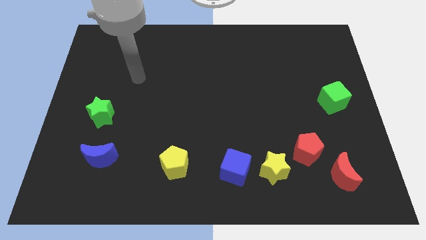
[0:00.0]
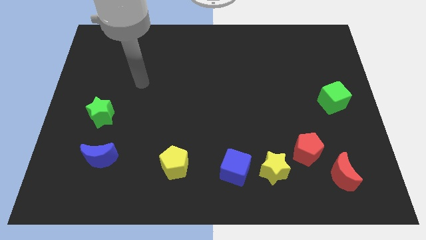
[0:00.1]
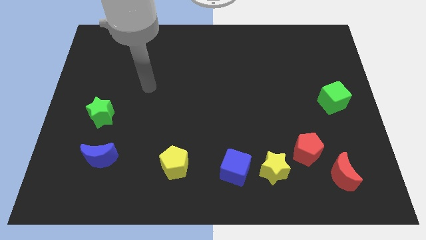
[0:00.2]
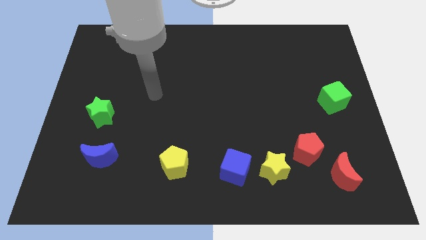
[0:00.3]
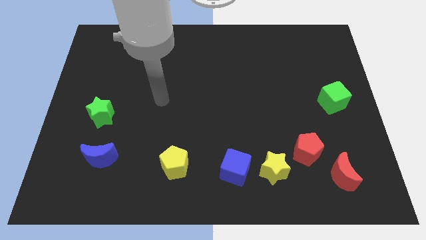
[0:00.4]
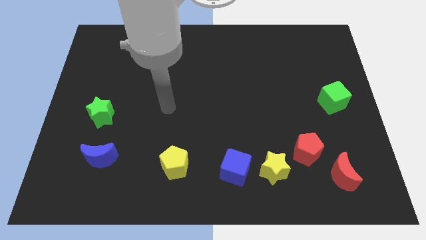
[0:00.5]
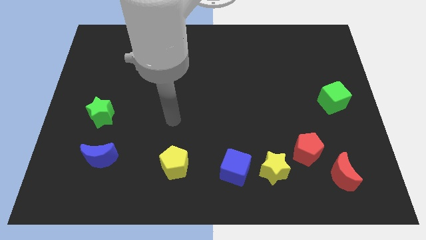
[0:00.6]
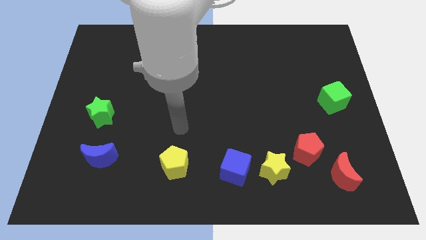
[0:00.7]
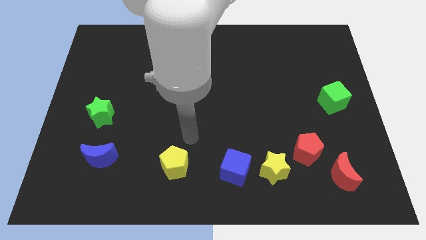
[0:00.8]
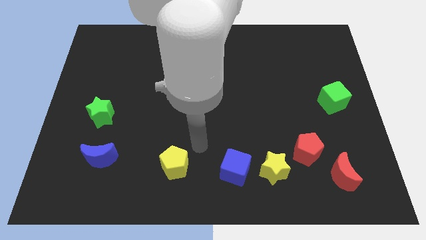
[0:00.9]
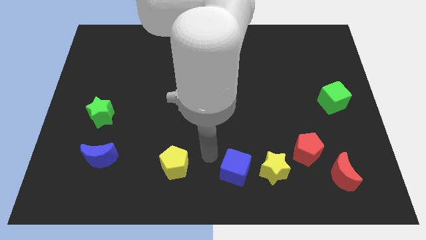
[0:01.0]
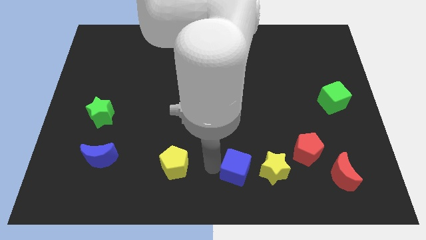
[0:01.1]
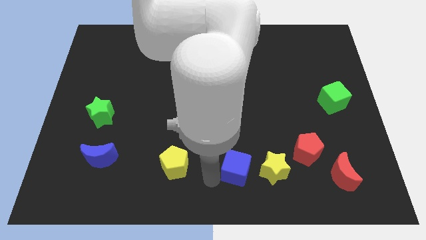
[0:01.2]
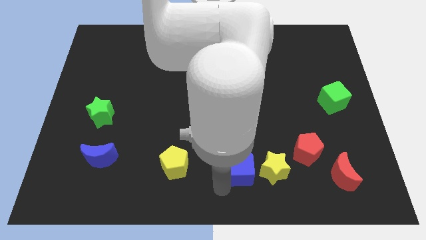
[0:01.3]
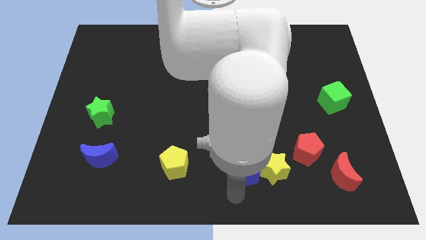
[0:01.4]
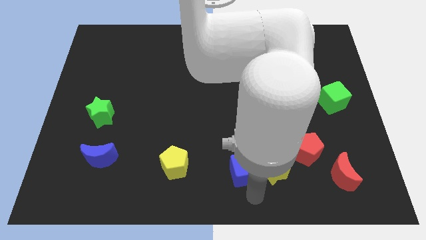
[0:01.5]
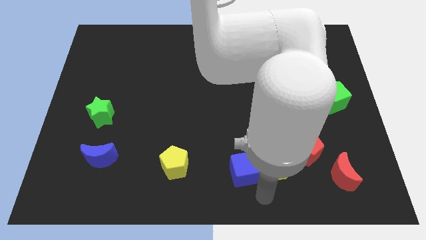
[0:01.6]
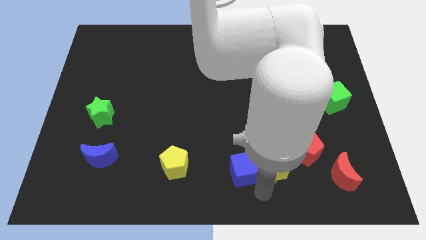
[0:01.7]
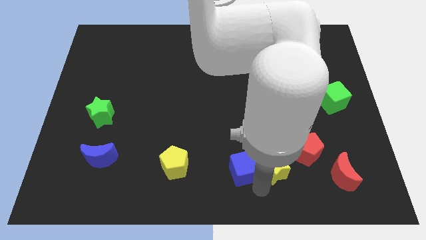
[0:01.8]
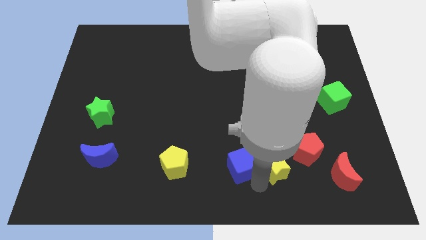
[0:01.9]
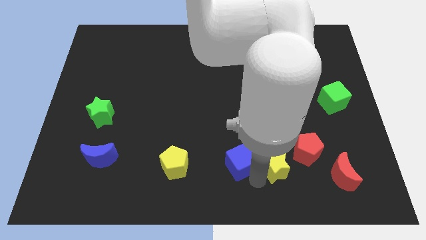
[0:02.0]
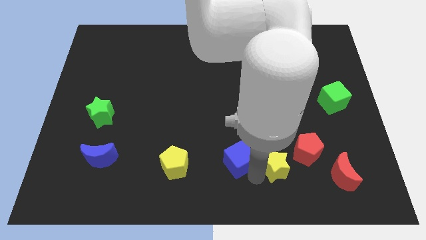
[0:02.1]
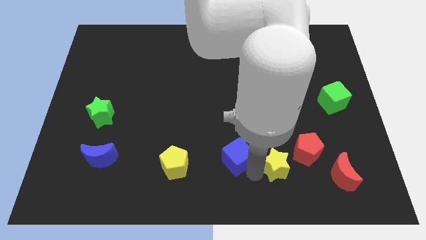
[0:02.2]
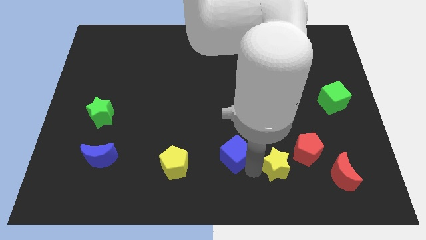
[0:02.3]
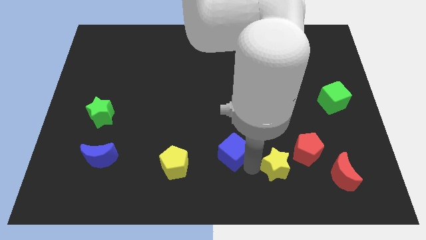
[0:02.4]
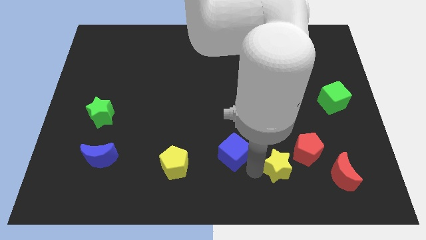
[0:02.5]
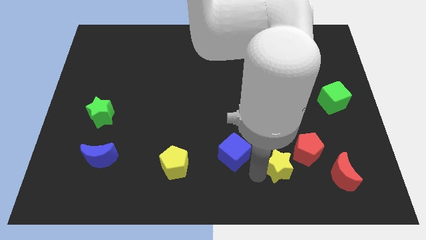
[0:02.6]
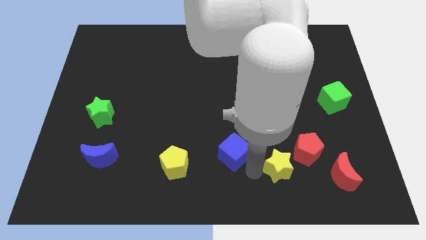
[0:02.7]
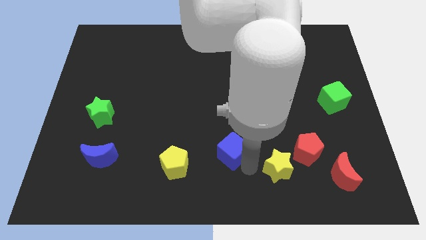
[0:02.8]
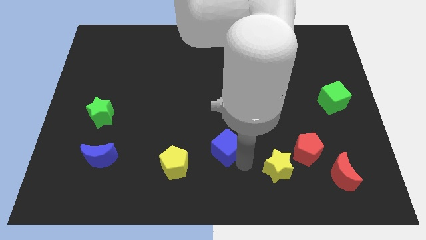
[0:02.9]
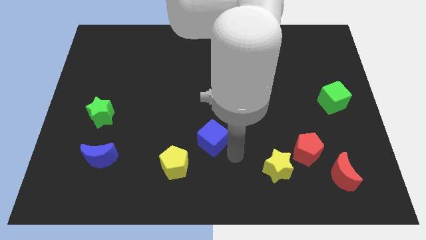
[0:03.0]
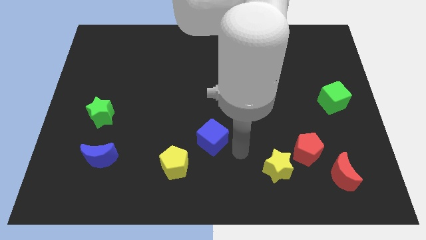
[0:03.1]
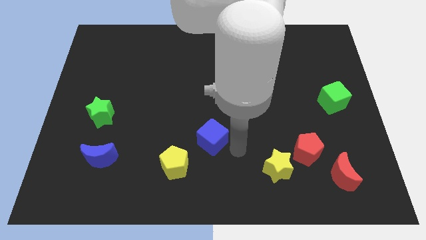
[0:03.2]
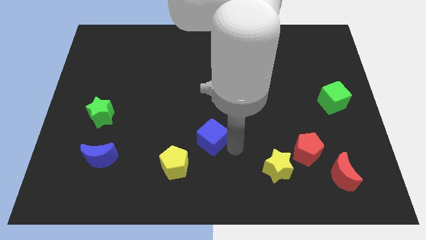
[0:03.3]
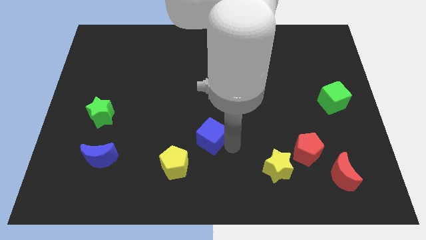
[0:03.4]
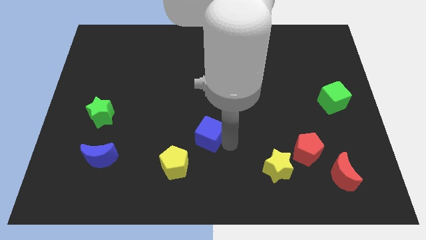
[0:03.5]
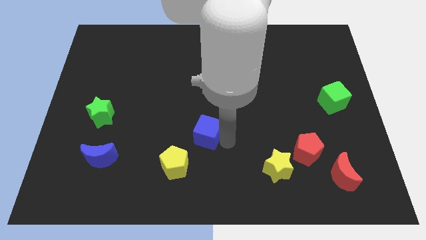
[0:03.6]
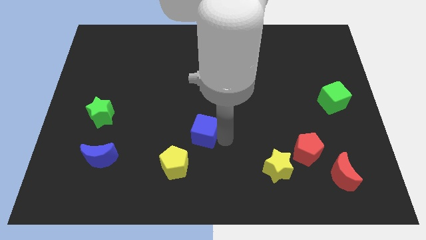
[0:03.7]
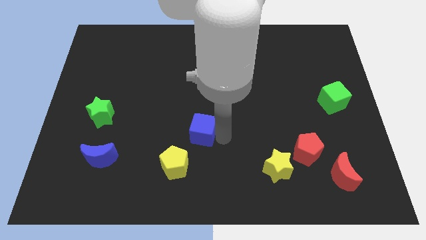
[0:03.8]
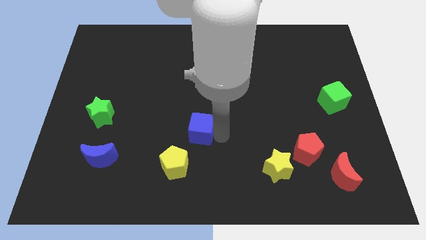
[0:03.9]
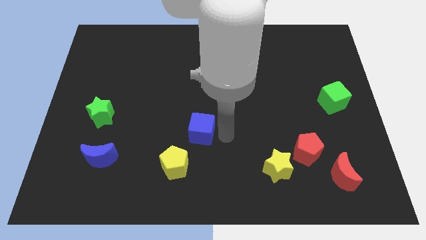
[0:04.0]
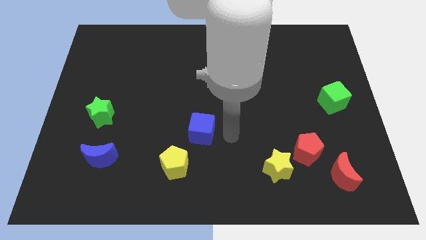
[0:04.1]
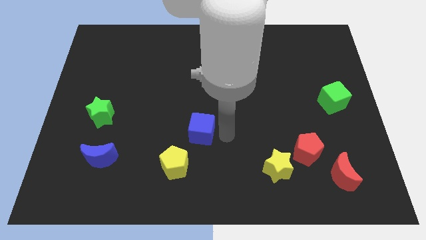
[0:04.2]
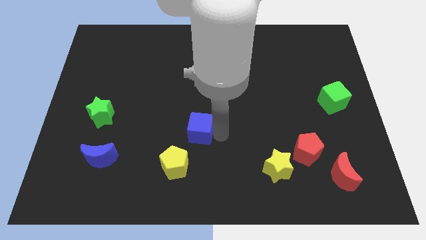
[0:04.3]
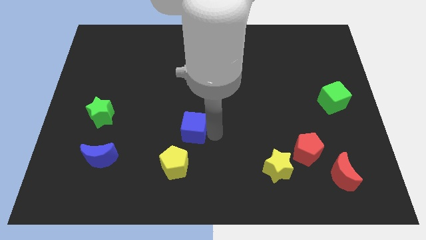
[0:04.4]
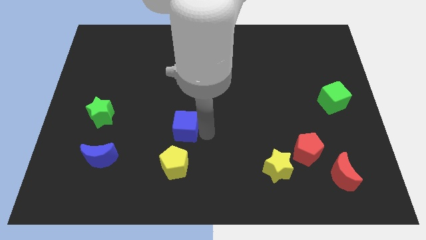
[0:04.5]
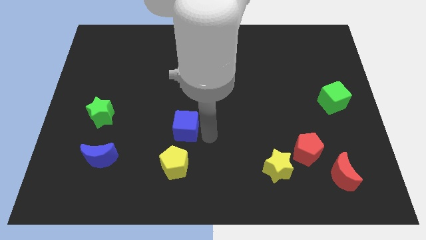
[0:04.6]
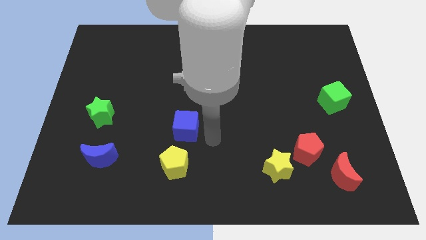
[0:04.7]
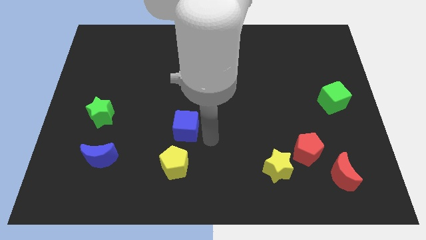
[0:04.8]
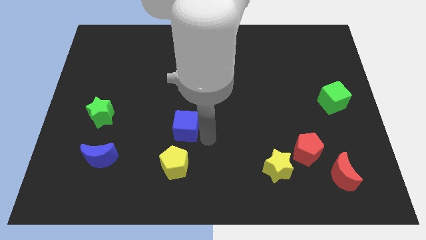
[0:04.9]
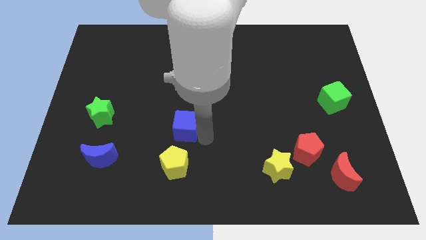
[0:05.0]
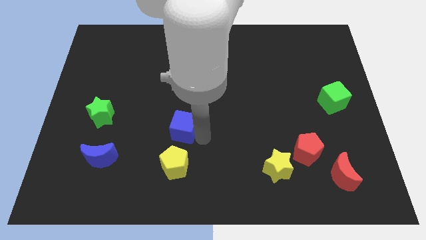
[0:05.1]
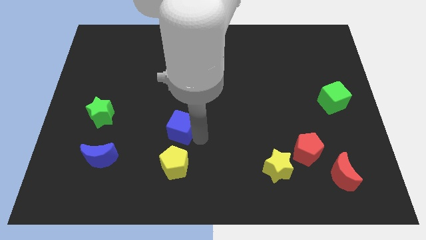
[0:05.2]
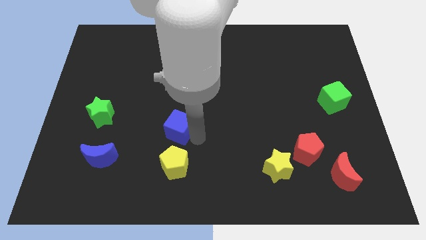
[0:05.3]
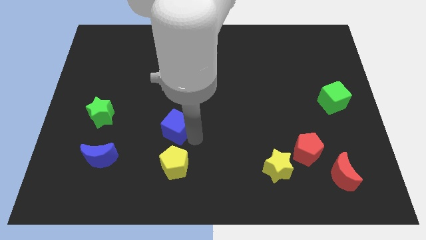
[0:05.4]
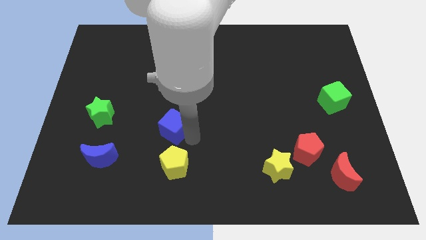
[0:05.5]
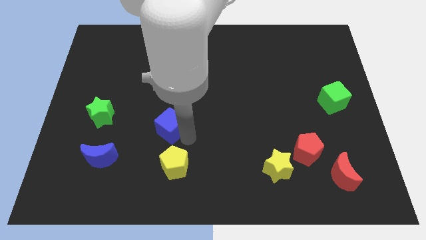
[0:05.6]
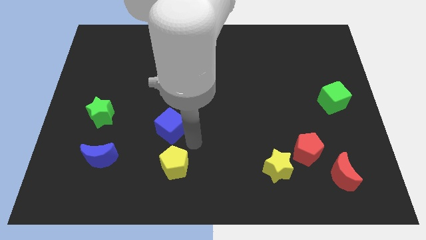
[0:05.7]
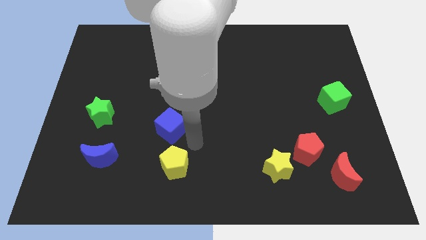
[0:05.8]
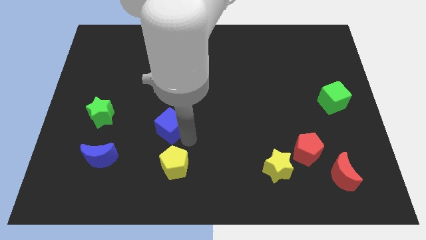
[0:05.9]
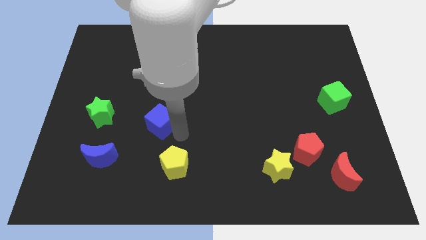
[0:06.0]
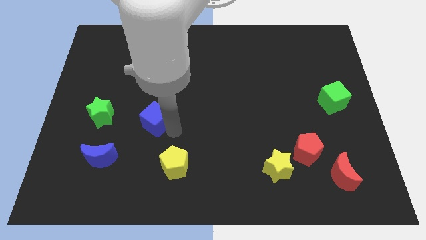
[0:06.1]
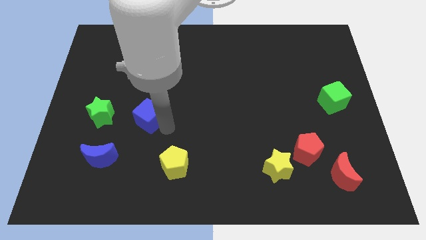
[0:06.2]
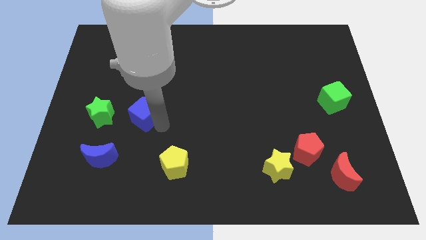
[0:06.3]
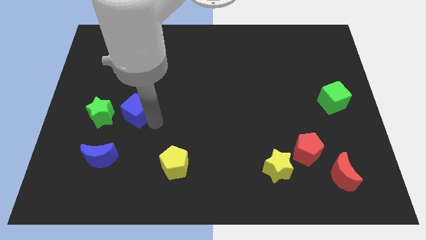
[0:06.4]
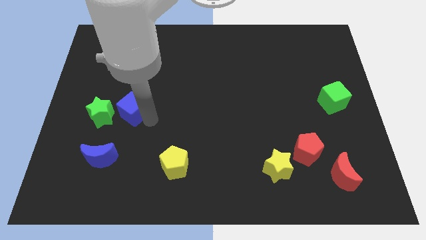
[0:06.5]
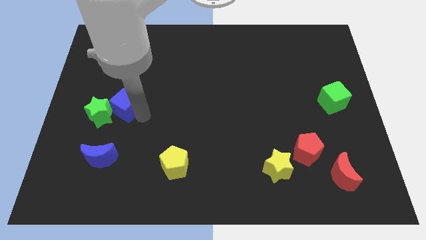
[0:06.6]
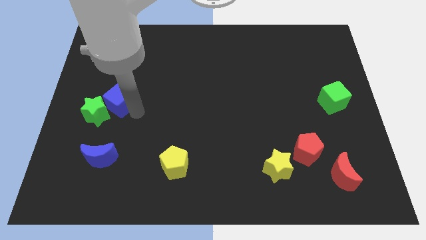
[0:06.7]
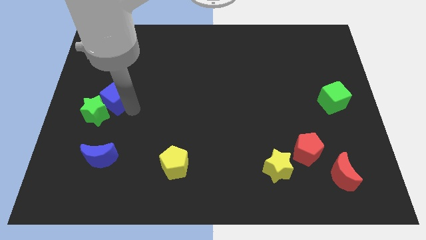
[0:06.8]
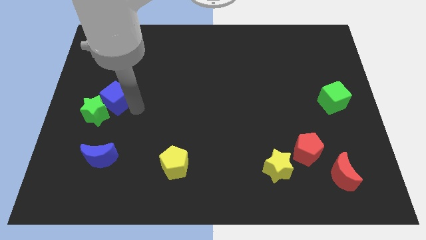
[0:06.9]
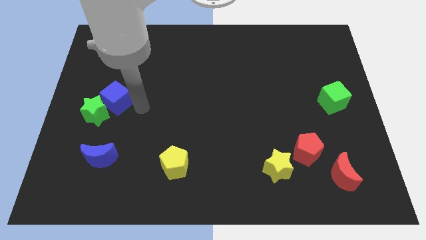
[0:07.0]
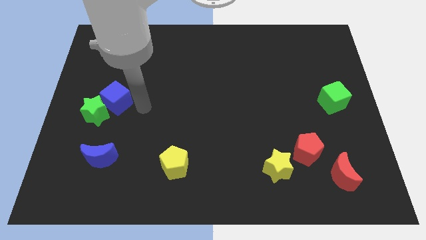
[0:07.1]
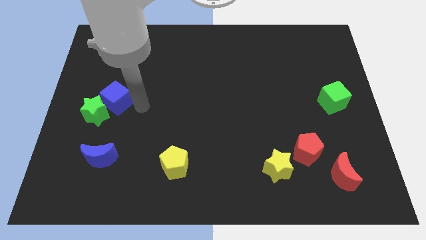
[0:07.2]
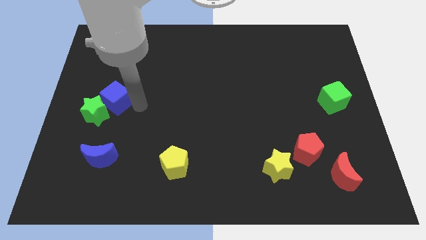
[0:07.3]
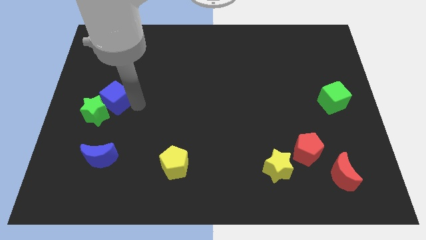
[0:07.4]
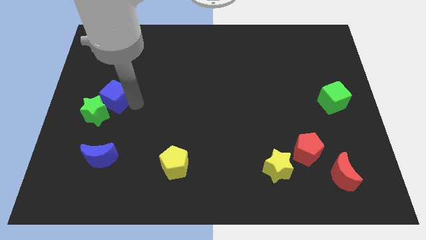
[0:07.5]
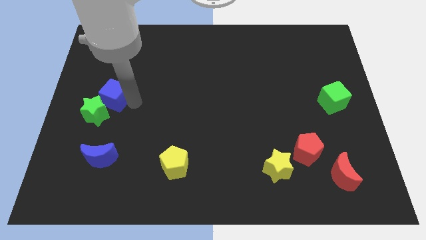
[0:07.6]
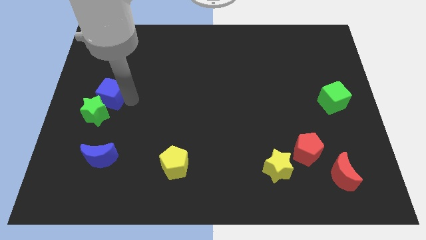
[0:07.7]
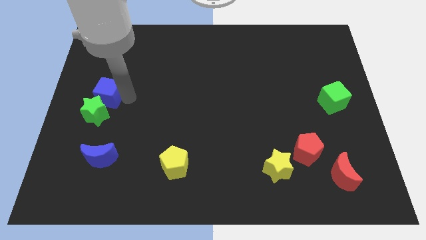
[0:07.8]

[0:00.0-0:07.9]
push the blue cube to the center left
